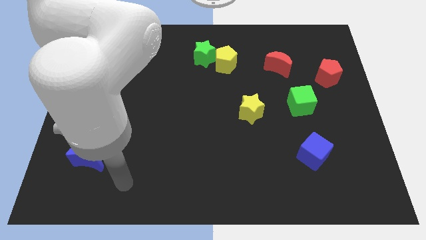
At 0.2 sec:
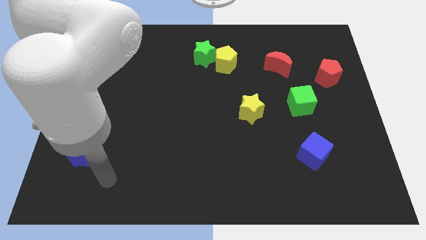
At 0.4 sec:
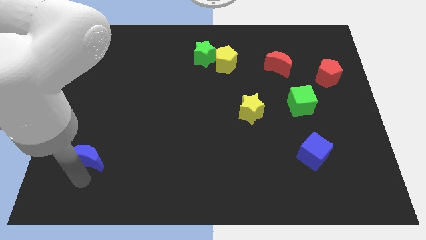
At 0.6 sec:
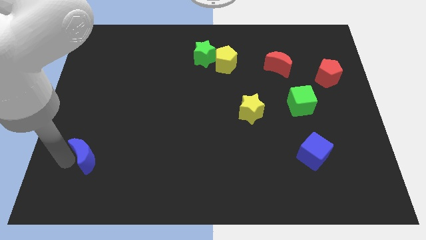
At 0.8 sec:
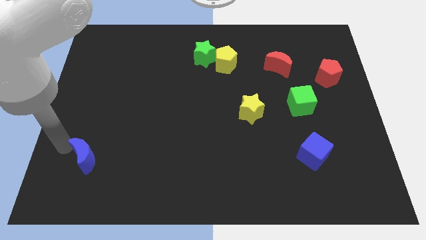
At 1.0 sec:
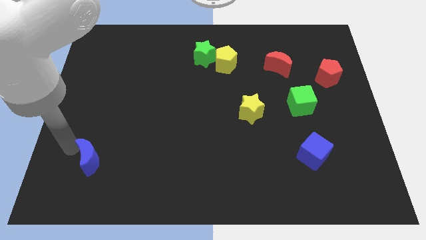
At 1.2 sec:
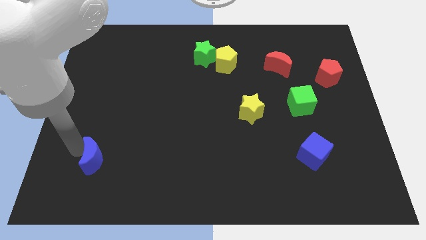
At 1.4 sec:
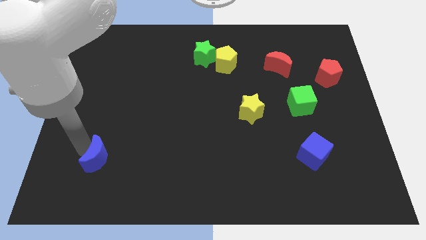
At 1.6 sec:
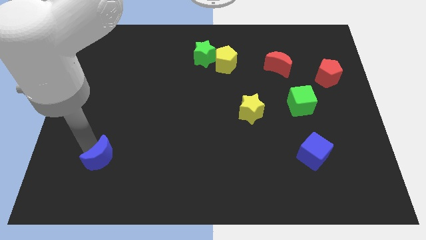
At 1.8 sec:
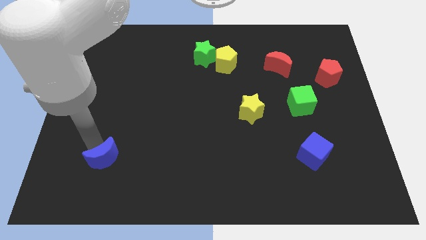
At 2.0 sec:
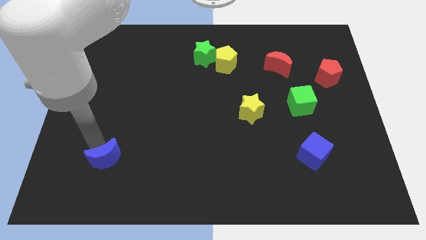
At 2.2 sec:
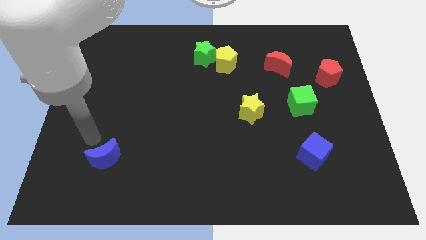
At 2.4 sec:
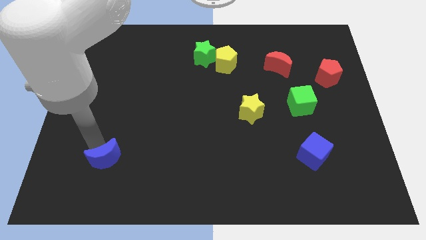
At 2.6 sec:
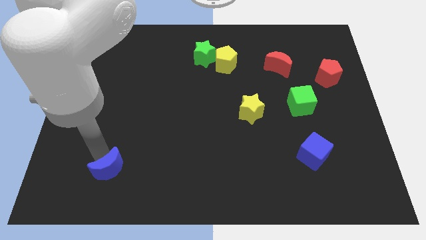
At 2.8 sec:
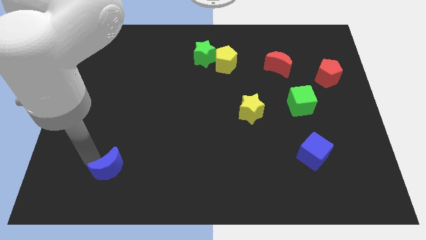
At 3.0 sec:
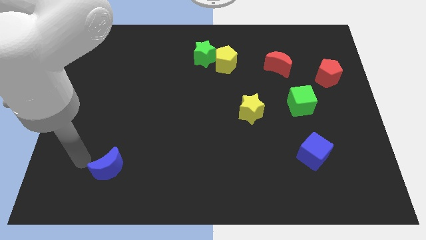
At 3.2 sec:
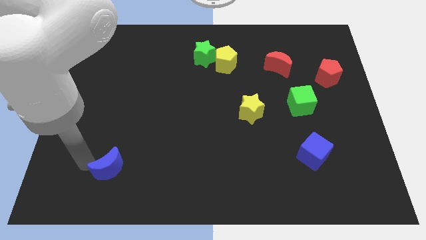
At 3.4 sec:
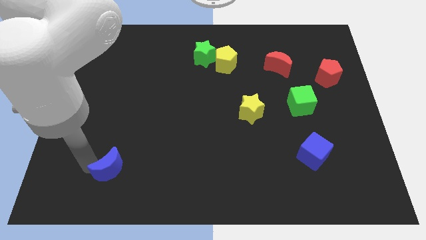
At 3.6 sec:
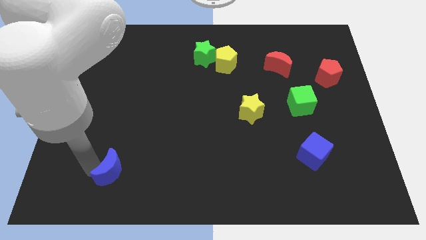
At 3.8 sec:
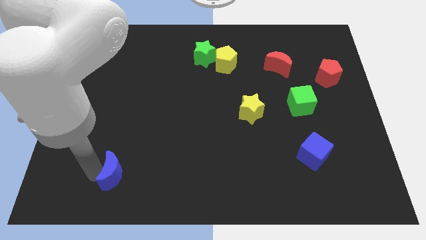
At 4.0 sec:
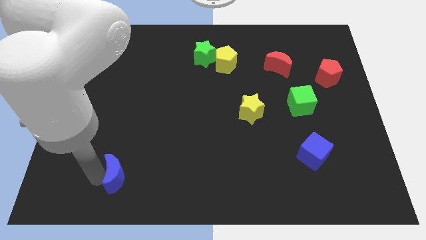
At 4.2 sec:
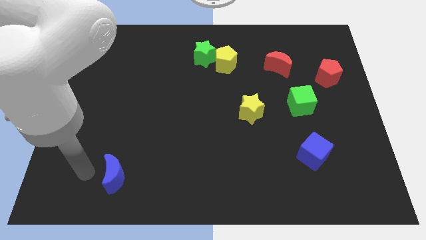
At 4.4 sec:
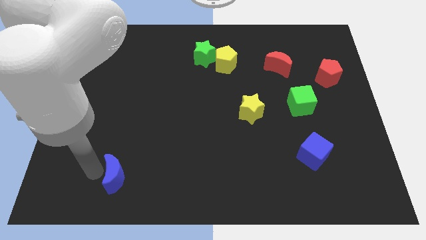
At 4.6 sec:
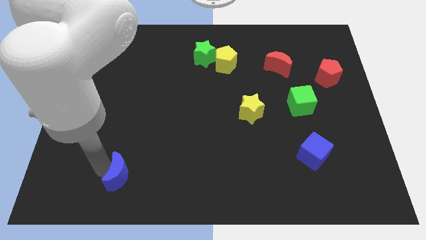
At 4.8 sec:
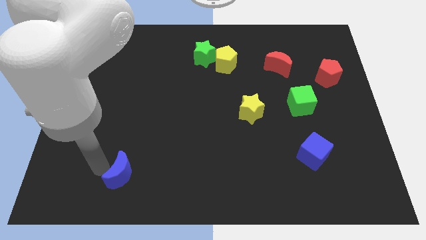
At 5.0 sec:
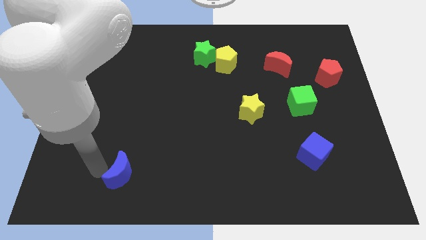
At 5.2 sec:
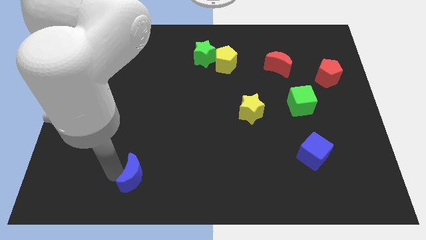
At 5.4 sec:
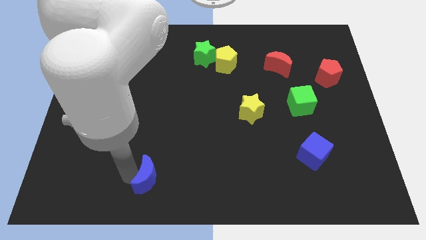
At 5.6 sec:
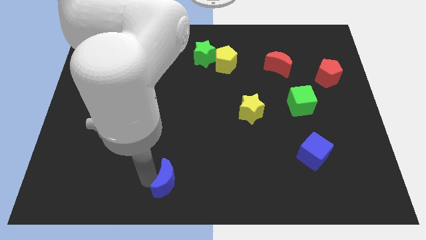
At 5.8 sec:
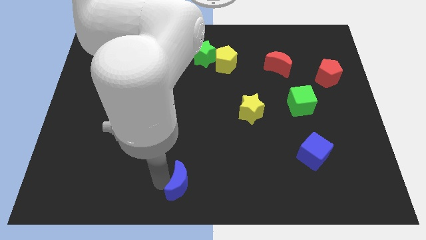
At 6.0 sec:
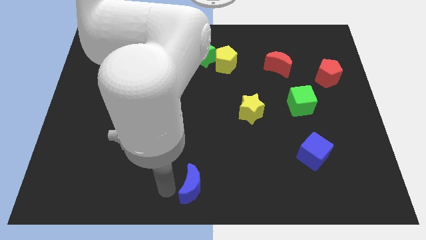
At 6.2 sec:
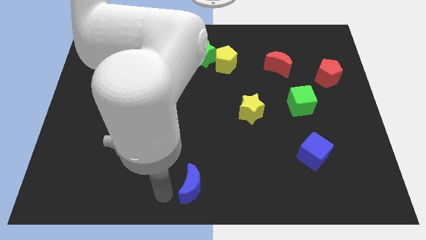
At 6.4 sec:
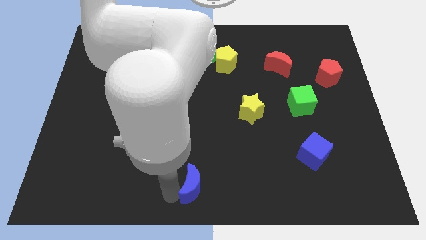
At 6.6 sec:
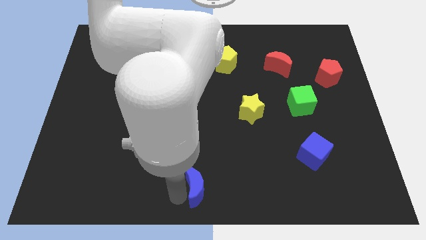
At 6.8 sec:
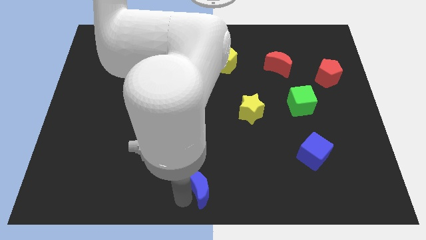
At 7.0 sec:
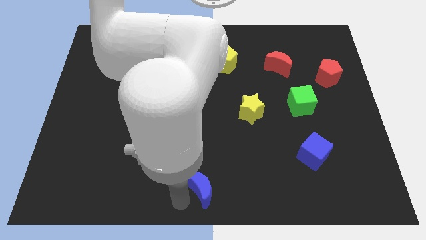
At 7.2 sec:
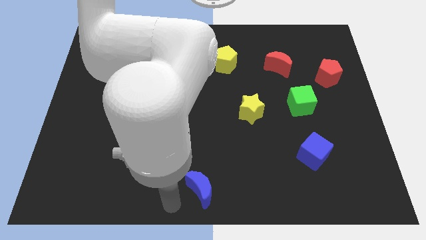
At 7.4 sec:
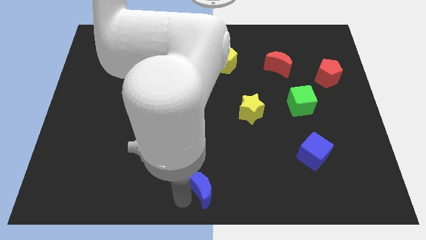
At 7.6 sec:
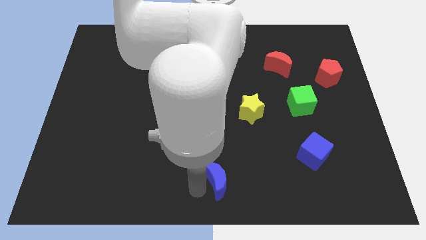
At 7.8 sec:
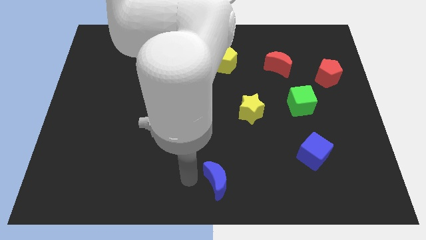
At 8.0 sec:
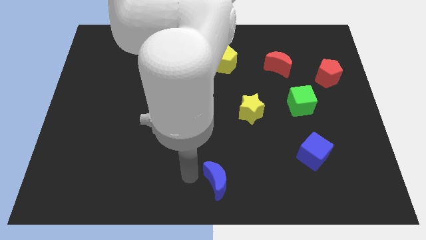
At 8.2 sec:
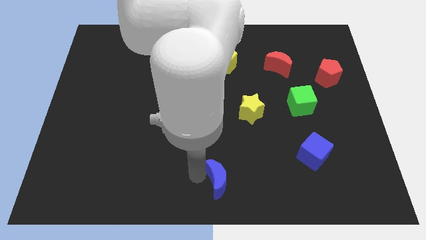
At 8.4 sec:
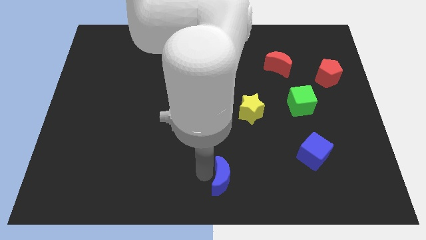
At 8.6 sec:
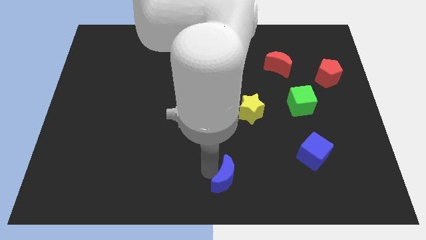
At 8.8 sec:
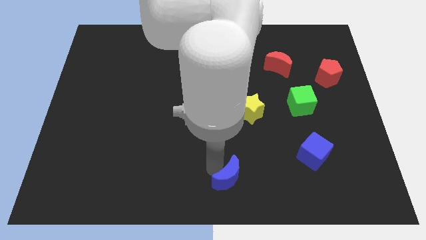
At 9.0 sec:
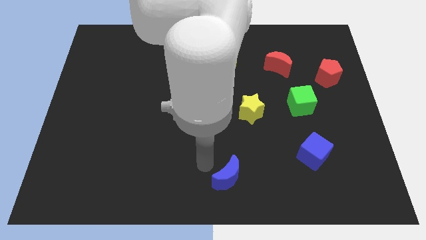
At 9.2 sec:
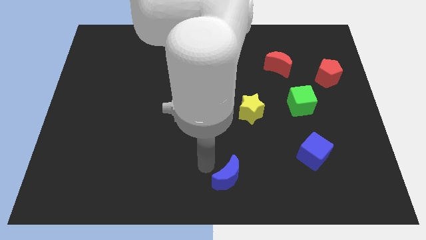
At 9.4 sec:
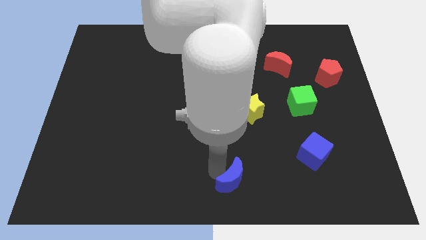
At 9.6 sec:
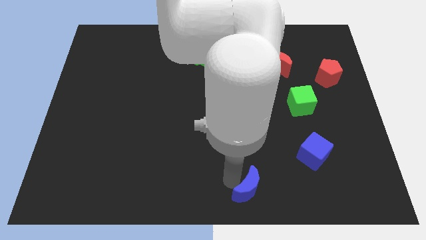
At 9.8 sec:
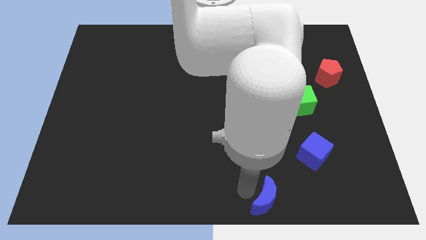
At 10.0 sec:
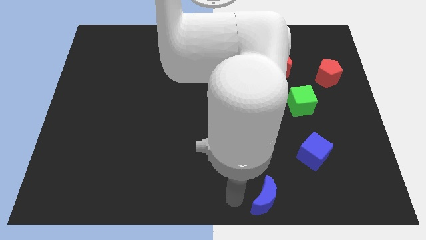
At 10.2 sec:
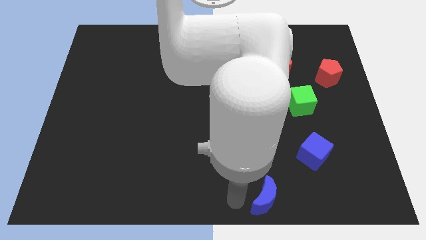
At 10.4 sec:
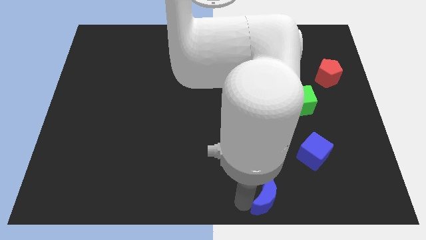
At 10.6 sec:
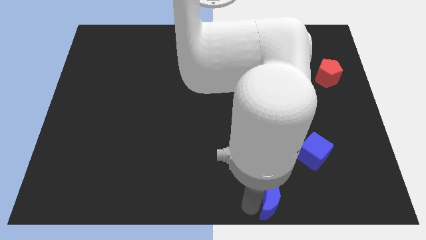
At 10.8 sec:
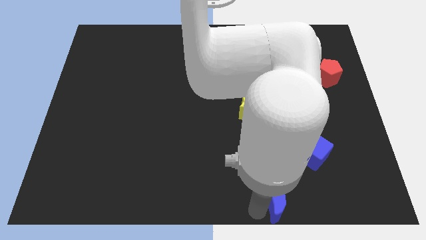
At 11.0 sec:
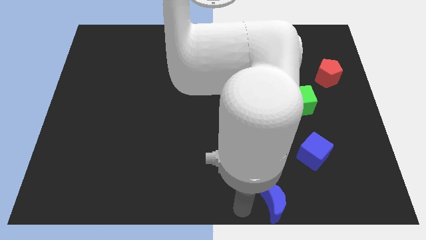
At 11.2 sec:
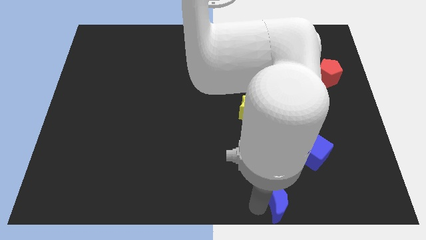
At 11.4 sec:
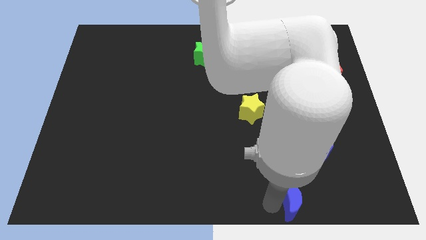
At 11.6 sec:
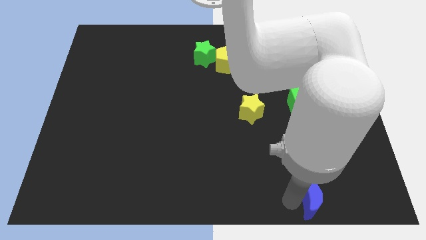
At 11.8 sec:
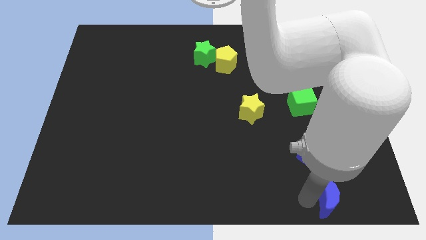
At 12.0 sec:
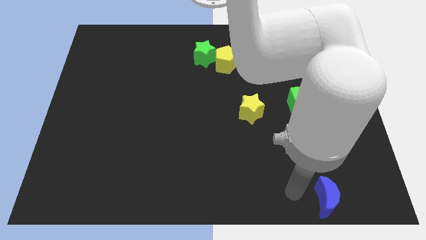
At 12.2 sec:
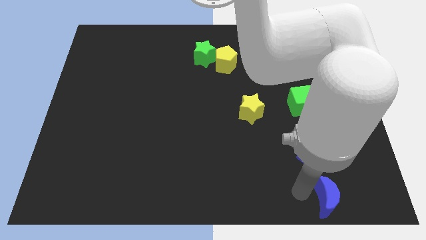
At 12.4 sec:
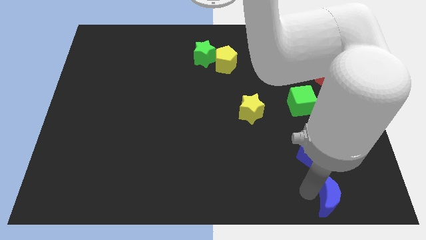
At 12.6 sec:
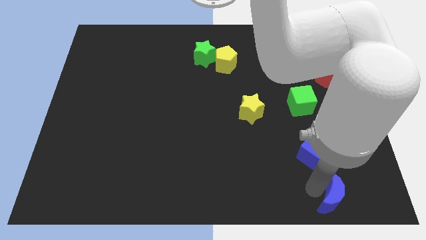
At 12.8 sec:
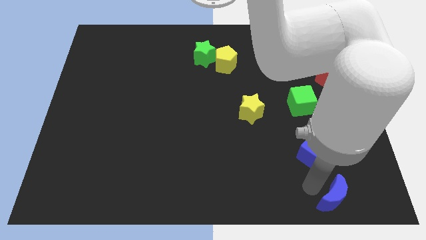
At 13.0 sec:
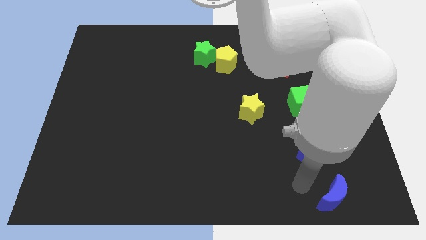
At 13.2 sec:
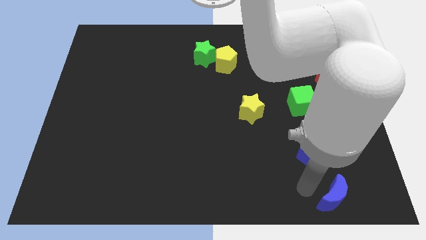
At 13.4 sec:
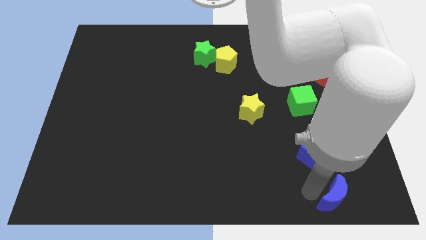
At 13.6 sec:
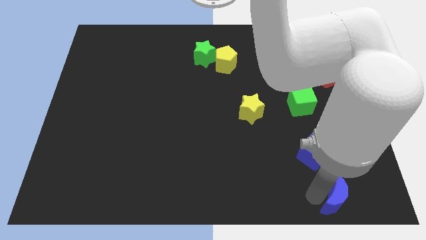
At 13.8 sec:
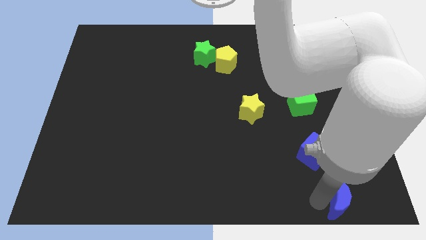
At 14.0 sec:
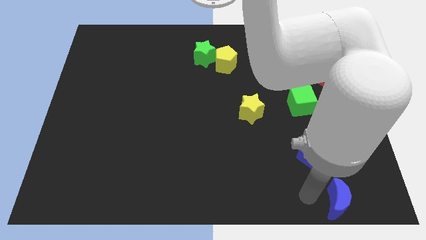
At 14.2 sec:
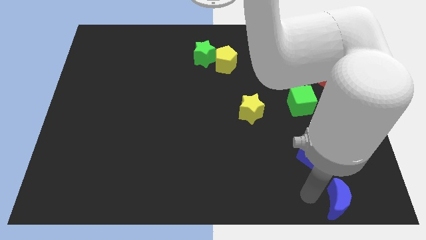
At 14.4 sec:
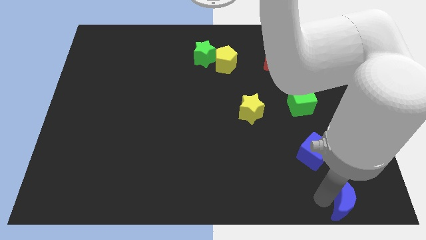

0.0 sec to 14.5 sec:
move the blue moon to the bottom right corner
